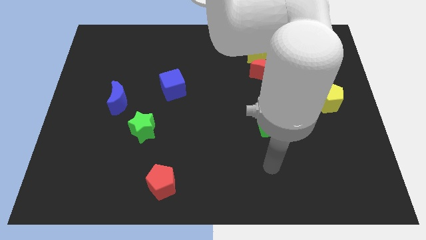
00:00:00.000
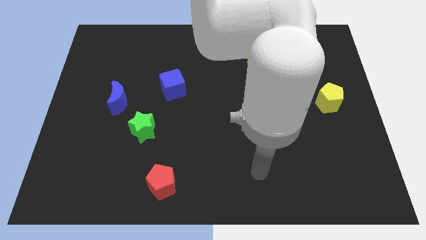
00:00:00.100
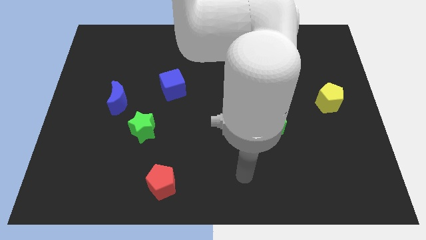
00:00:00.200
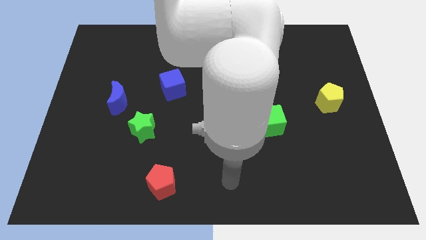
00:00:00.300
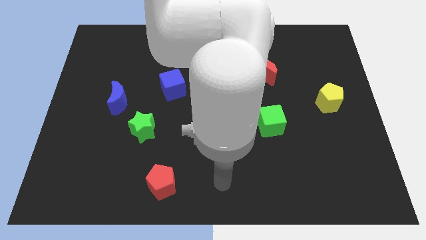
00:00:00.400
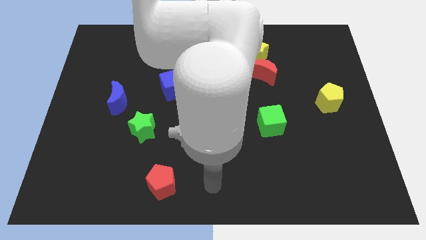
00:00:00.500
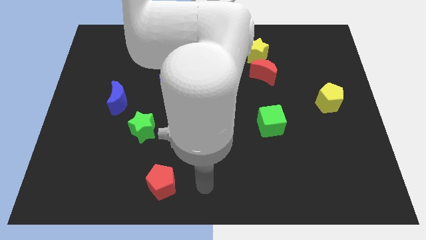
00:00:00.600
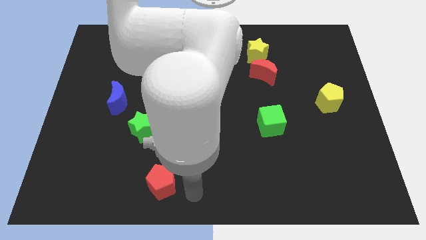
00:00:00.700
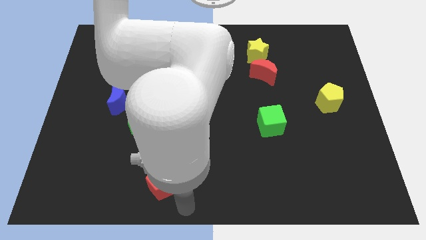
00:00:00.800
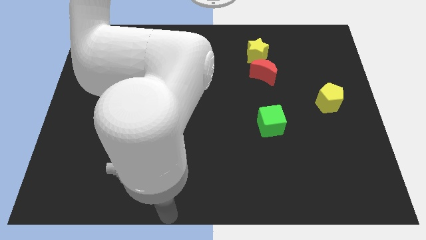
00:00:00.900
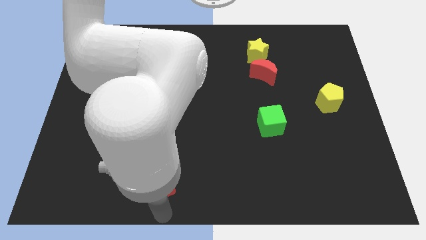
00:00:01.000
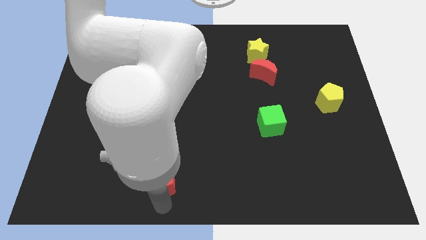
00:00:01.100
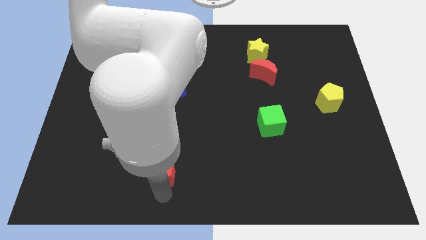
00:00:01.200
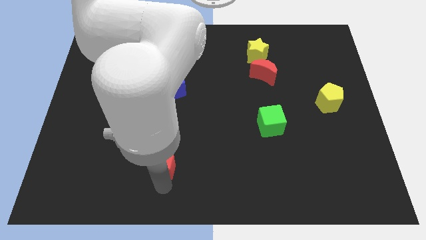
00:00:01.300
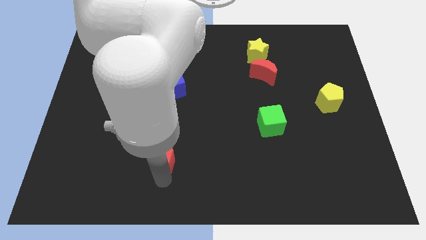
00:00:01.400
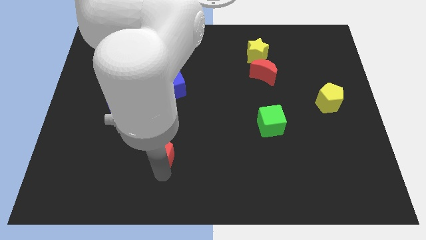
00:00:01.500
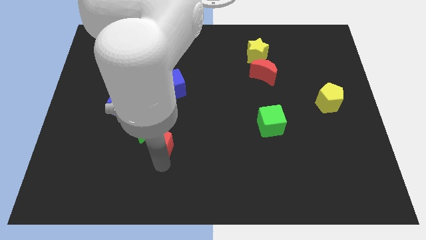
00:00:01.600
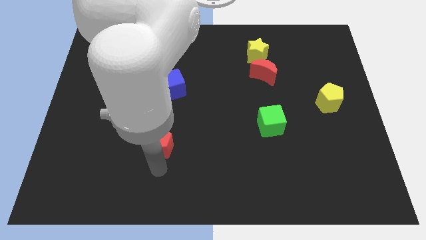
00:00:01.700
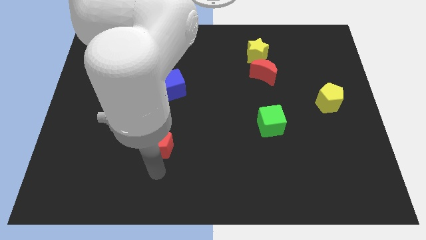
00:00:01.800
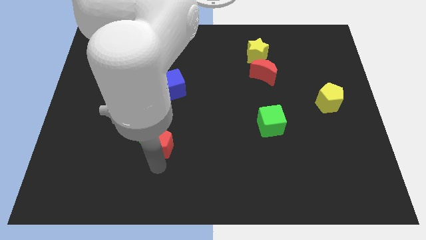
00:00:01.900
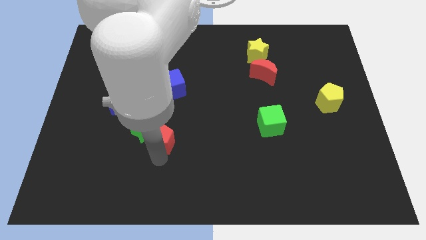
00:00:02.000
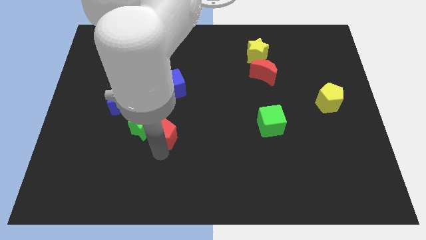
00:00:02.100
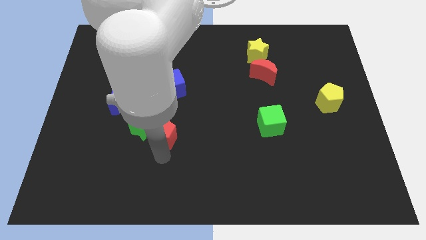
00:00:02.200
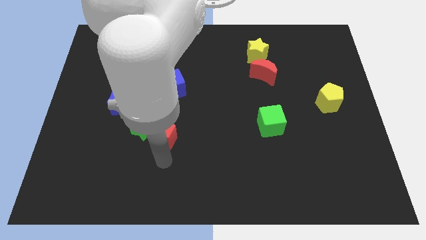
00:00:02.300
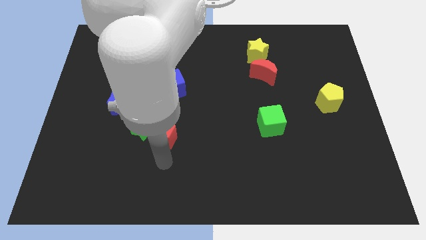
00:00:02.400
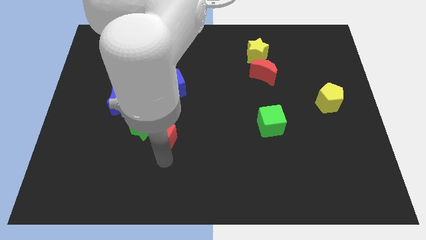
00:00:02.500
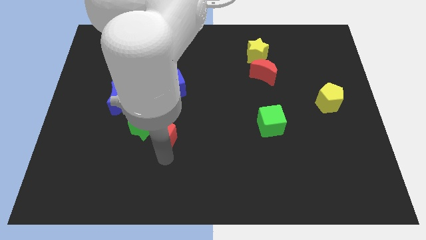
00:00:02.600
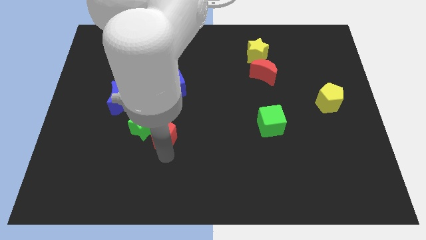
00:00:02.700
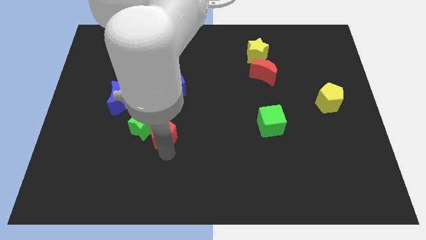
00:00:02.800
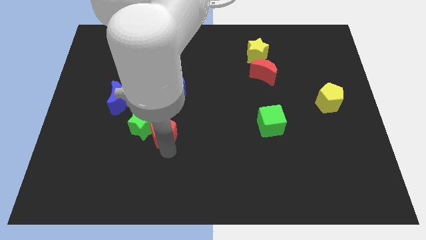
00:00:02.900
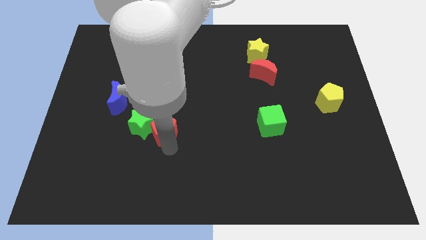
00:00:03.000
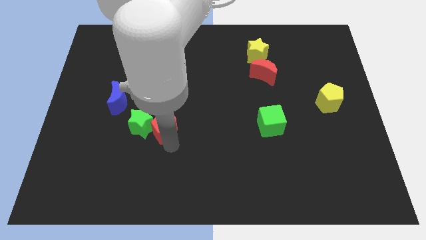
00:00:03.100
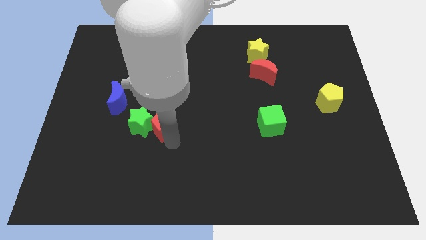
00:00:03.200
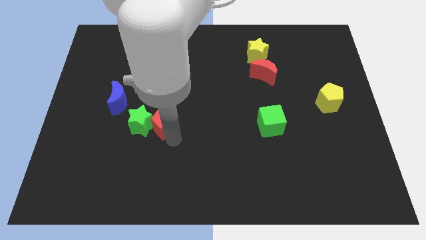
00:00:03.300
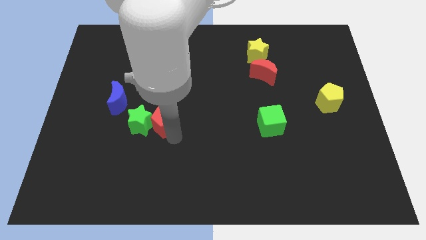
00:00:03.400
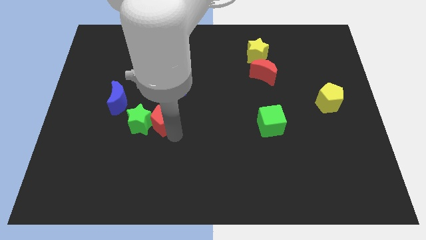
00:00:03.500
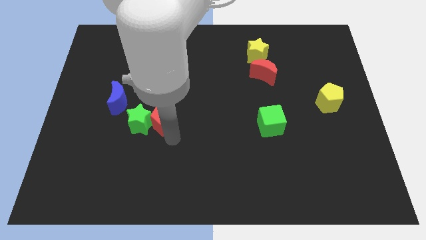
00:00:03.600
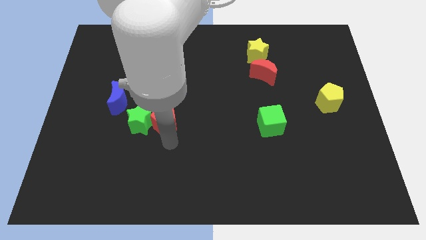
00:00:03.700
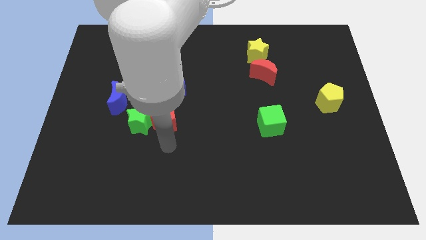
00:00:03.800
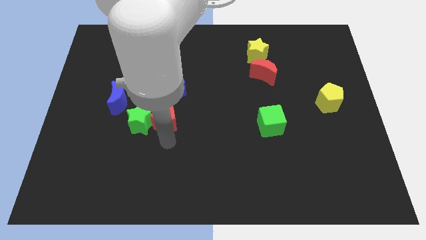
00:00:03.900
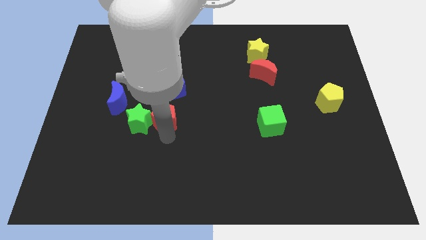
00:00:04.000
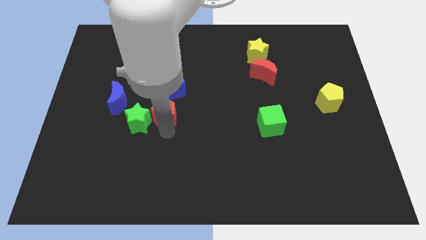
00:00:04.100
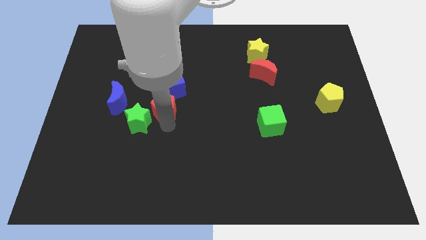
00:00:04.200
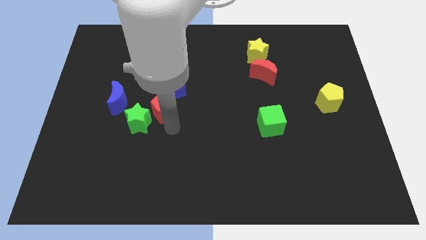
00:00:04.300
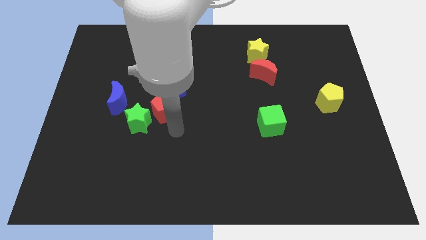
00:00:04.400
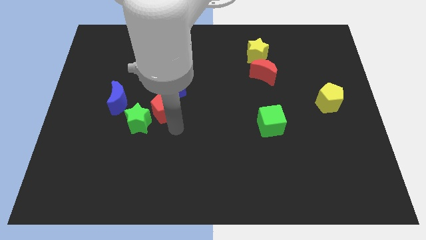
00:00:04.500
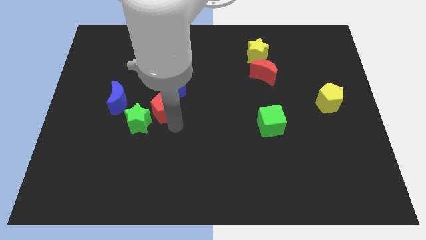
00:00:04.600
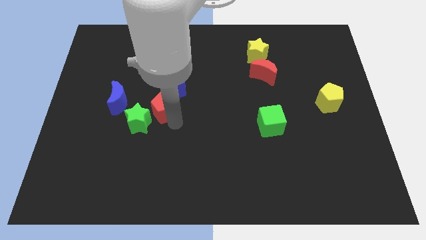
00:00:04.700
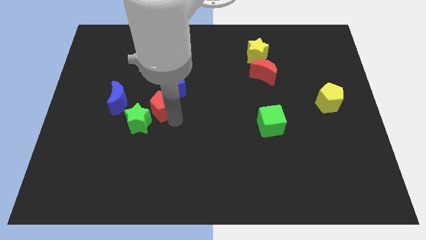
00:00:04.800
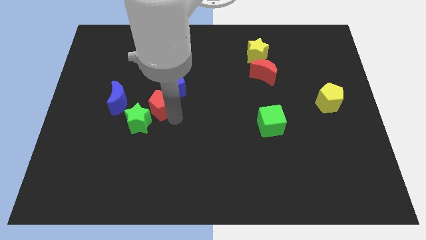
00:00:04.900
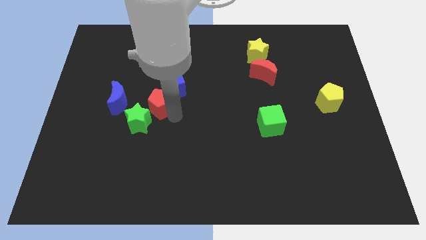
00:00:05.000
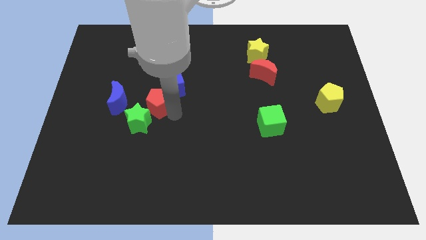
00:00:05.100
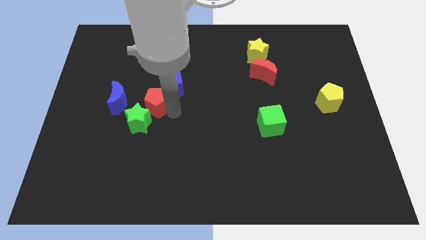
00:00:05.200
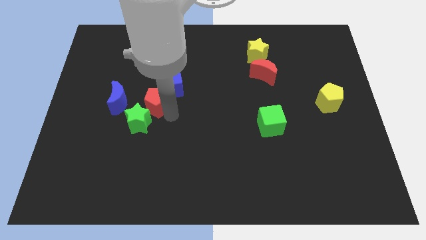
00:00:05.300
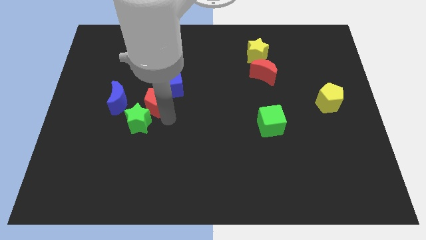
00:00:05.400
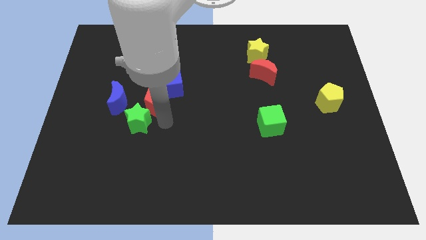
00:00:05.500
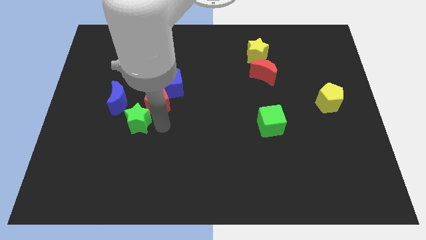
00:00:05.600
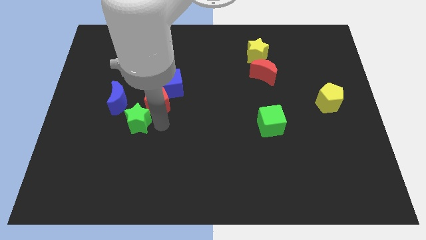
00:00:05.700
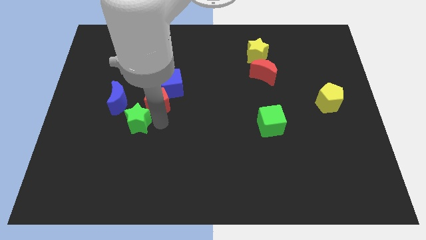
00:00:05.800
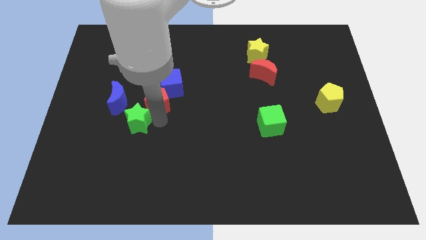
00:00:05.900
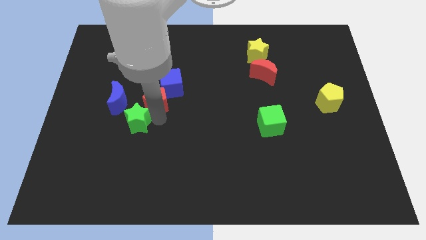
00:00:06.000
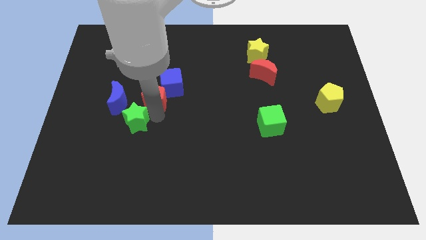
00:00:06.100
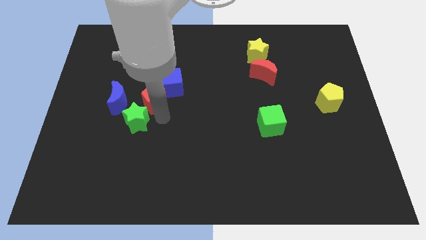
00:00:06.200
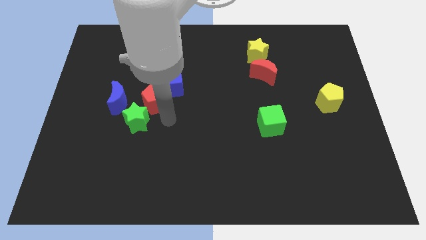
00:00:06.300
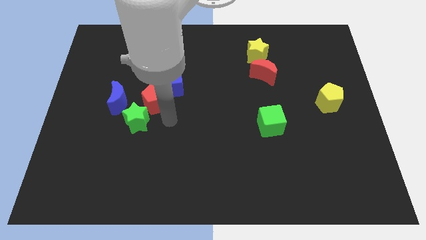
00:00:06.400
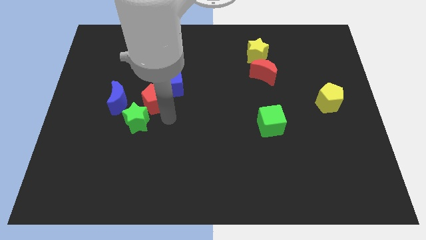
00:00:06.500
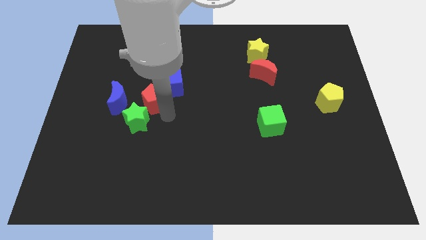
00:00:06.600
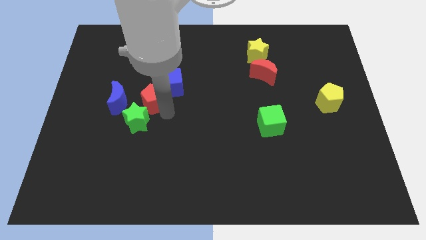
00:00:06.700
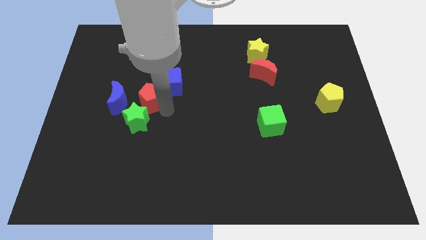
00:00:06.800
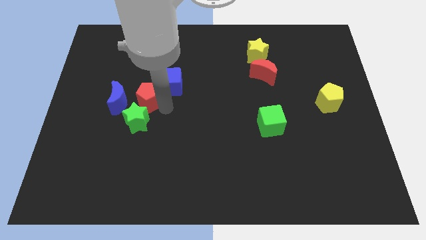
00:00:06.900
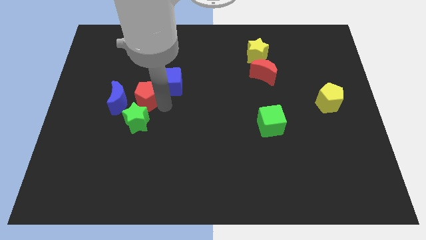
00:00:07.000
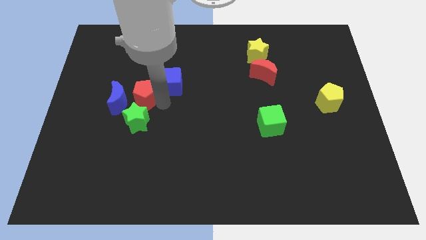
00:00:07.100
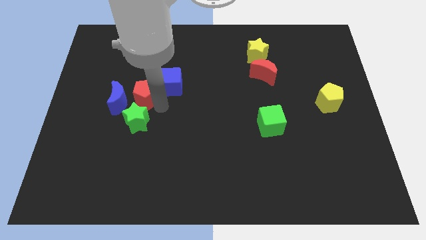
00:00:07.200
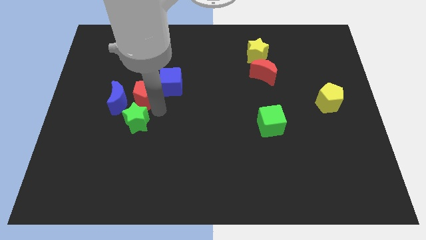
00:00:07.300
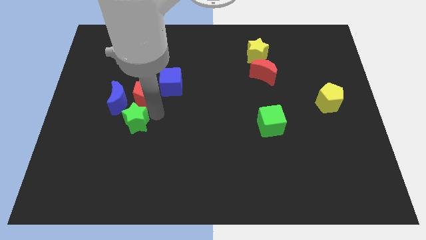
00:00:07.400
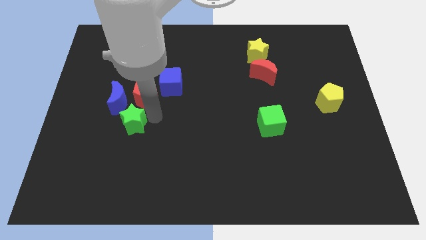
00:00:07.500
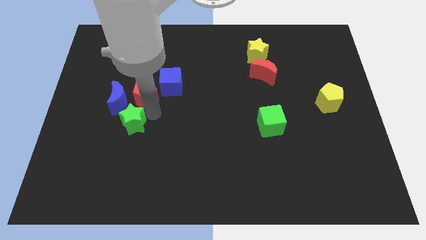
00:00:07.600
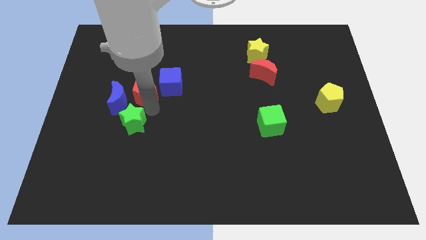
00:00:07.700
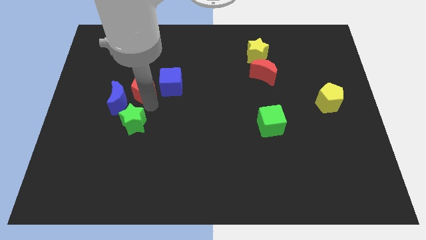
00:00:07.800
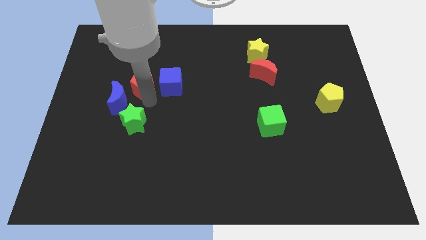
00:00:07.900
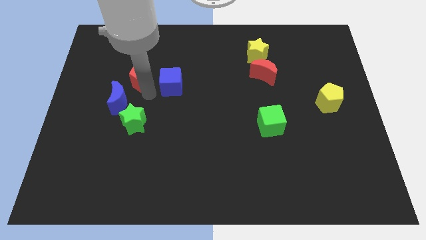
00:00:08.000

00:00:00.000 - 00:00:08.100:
move the red pentagon above the blue moon
